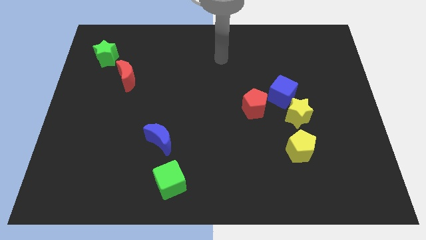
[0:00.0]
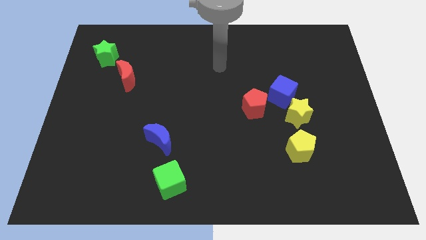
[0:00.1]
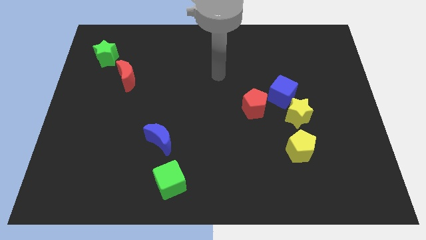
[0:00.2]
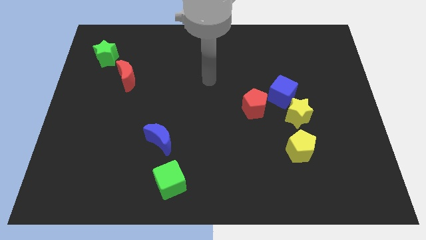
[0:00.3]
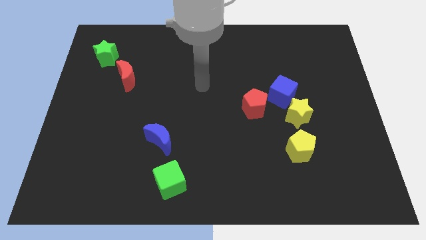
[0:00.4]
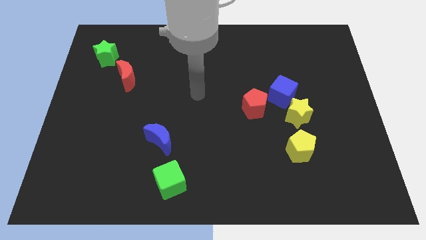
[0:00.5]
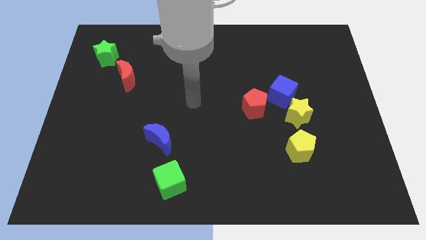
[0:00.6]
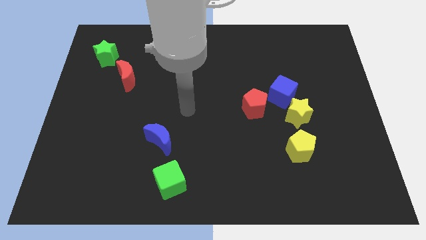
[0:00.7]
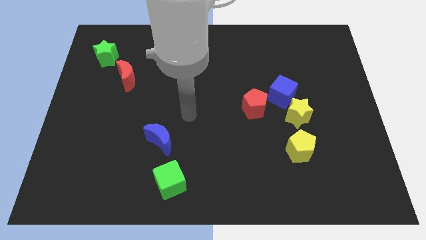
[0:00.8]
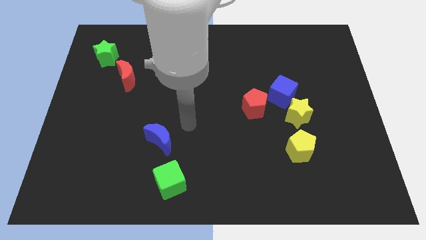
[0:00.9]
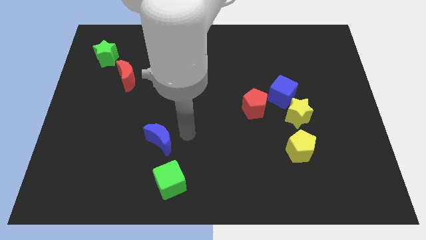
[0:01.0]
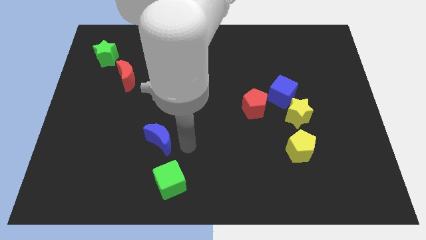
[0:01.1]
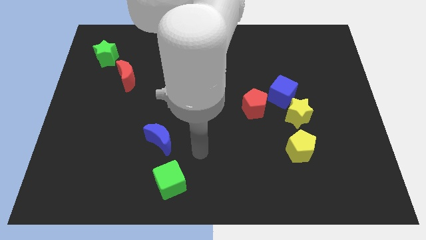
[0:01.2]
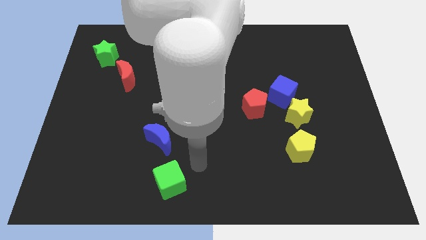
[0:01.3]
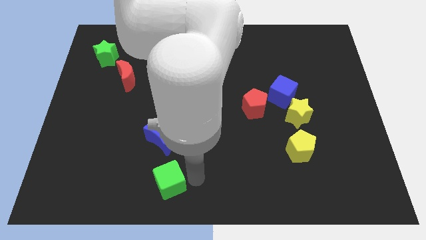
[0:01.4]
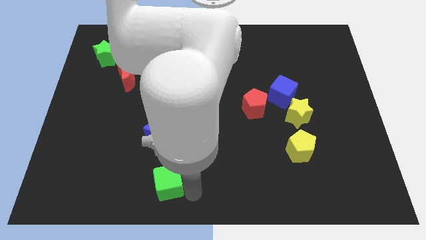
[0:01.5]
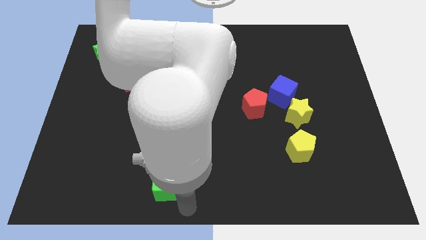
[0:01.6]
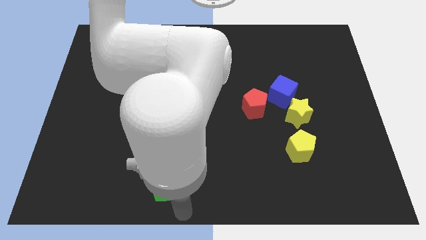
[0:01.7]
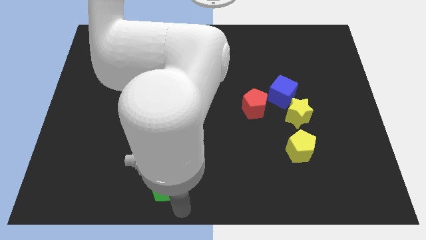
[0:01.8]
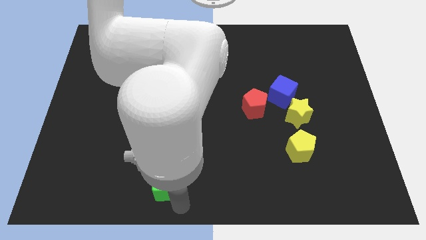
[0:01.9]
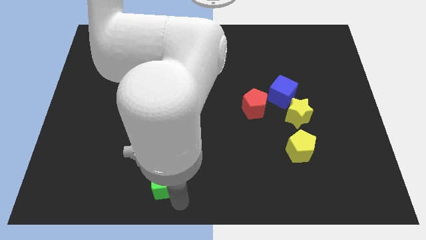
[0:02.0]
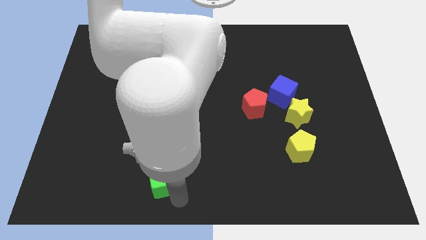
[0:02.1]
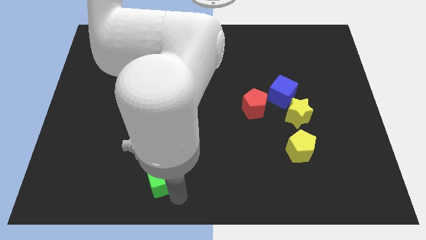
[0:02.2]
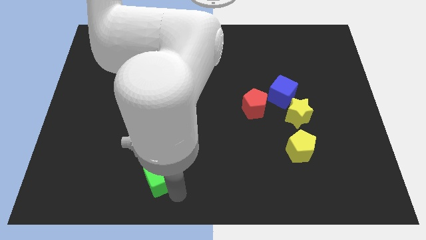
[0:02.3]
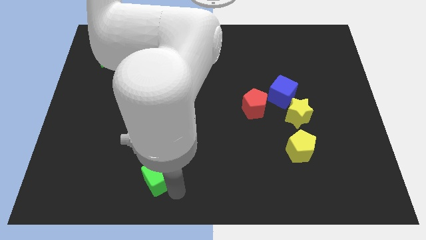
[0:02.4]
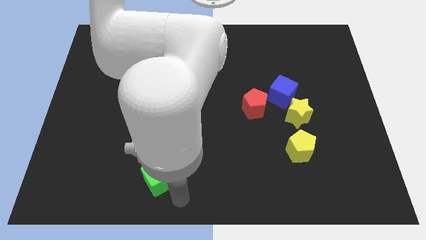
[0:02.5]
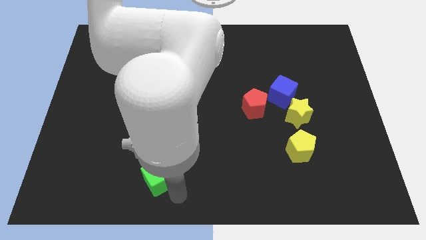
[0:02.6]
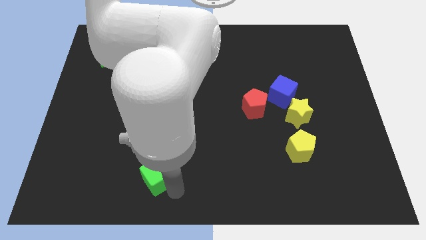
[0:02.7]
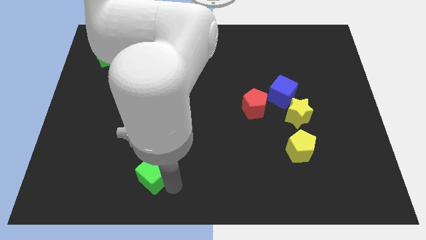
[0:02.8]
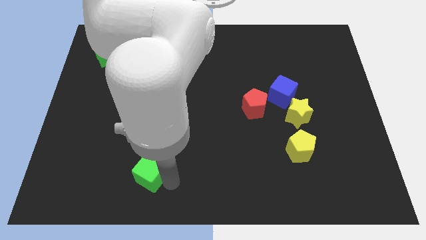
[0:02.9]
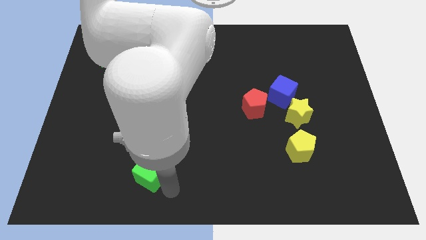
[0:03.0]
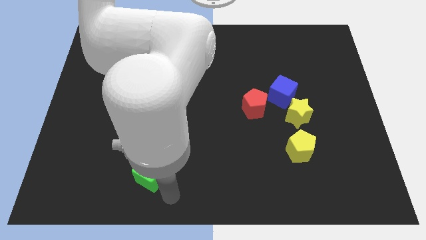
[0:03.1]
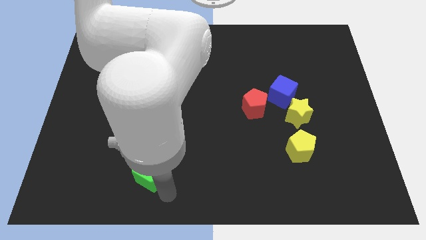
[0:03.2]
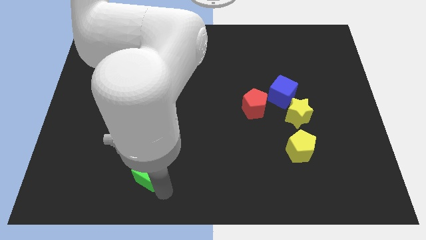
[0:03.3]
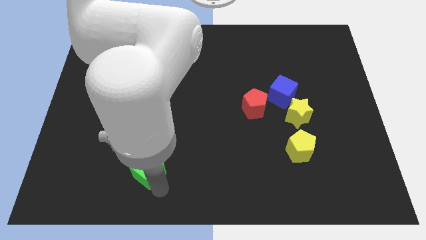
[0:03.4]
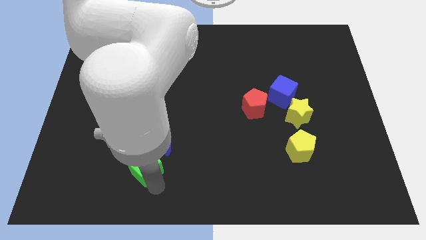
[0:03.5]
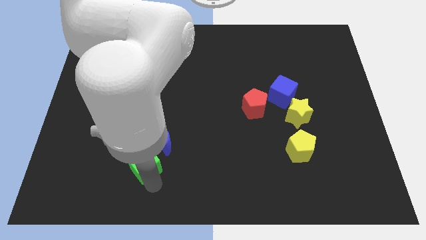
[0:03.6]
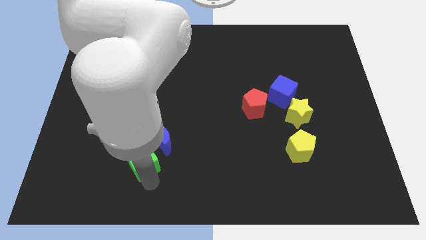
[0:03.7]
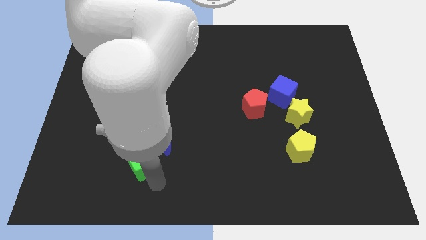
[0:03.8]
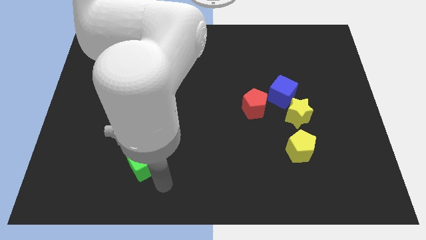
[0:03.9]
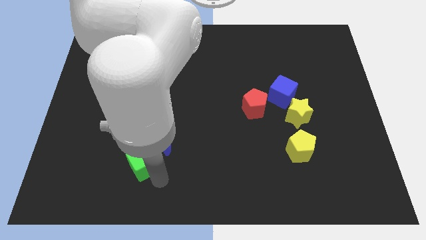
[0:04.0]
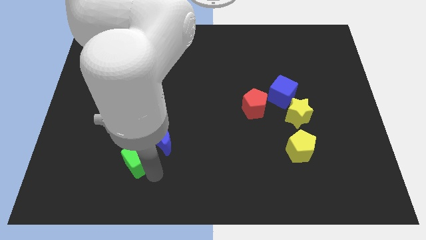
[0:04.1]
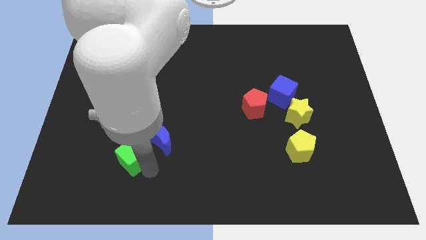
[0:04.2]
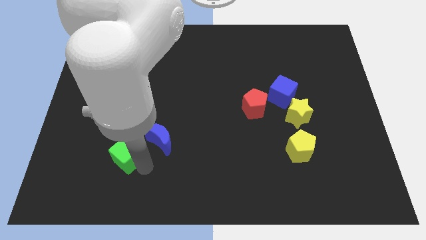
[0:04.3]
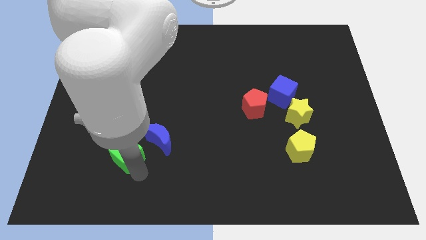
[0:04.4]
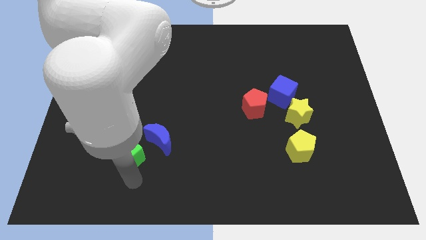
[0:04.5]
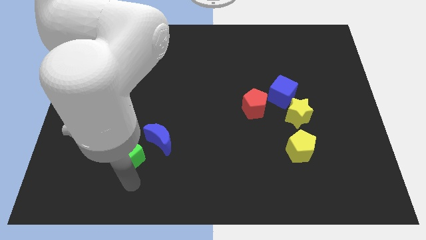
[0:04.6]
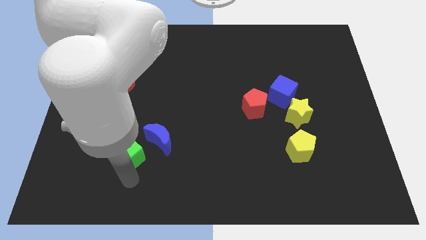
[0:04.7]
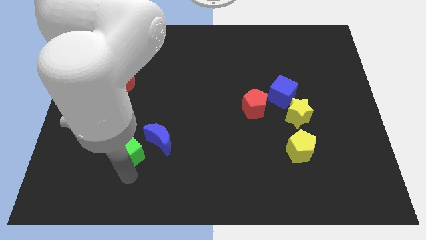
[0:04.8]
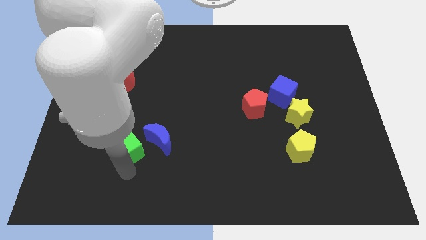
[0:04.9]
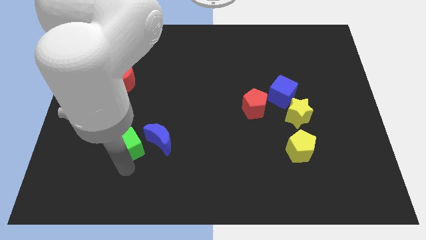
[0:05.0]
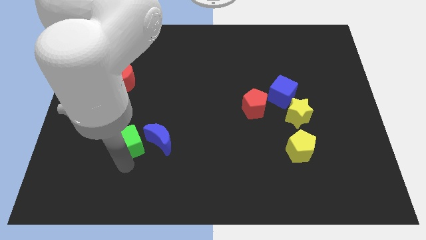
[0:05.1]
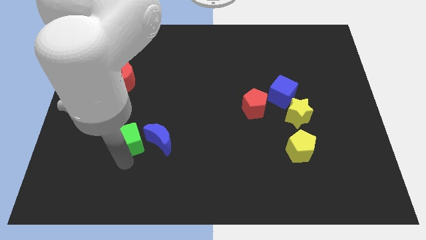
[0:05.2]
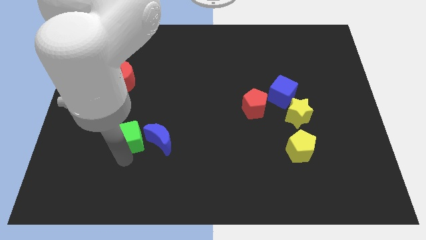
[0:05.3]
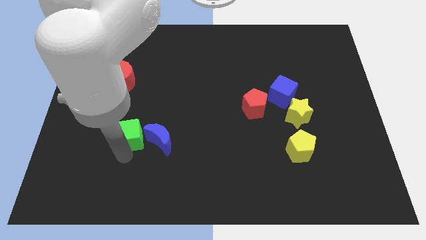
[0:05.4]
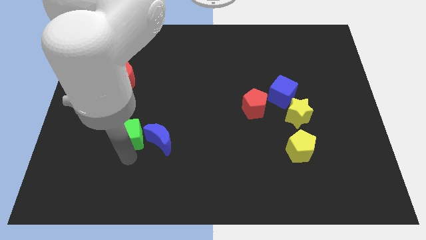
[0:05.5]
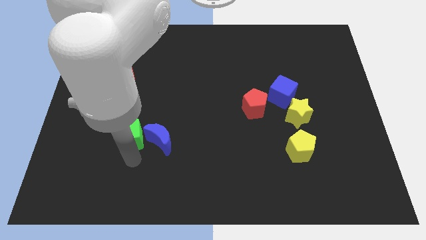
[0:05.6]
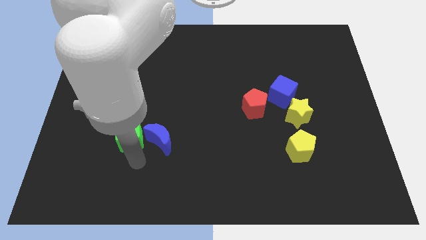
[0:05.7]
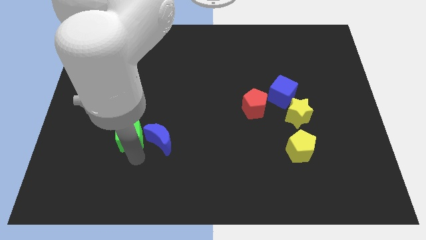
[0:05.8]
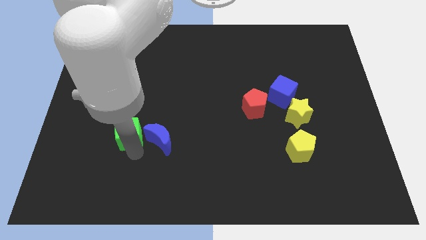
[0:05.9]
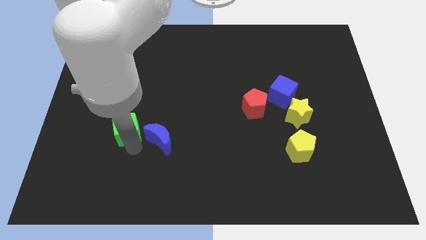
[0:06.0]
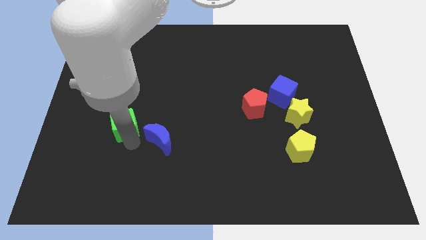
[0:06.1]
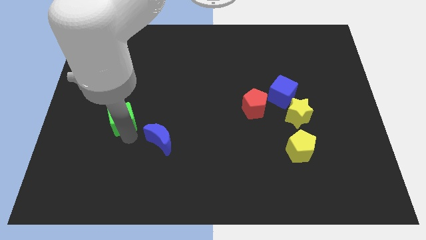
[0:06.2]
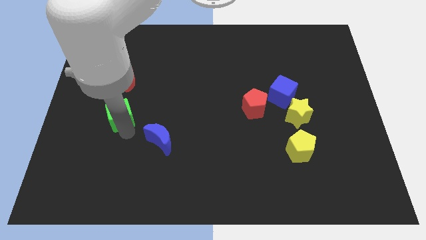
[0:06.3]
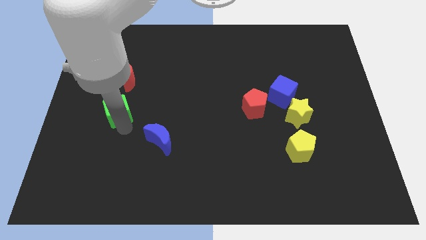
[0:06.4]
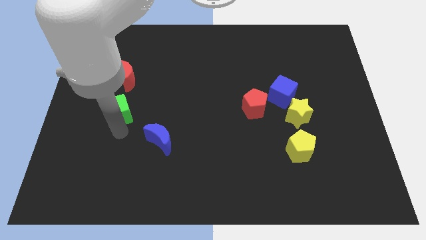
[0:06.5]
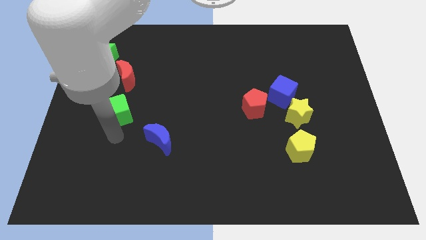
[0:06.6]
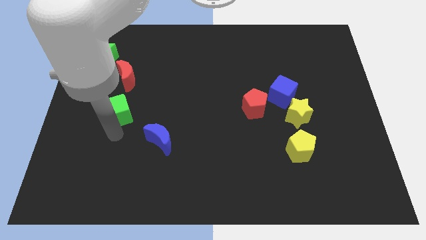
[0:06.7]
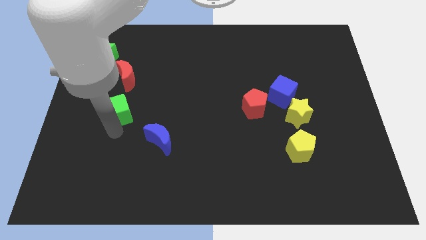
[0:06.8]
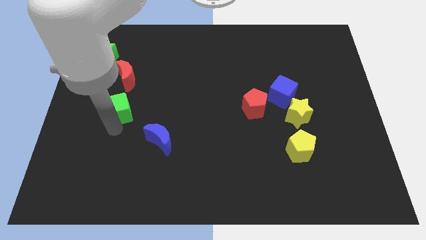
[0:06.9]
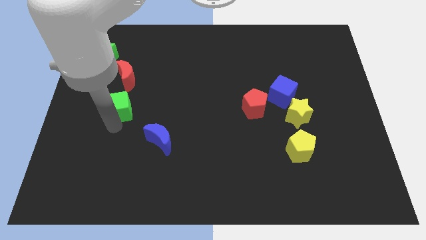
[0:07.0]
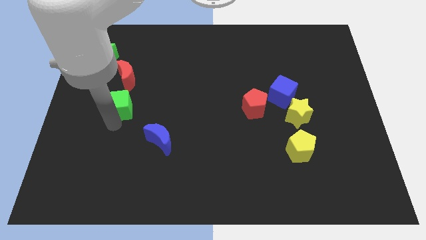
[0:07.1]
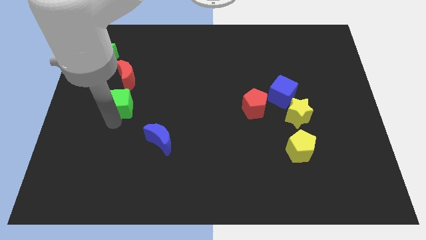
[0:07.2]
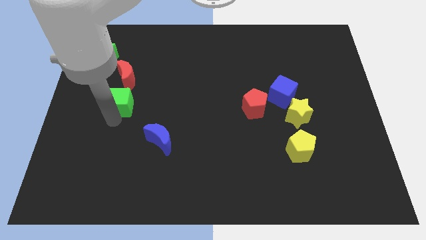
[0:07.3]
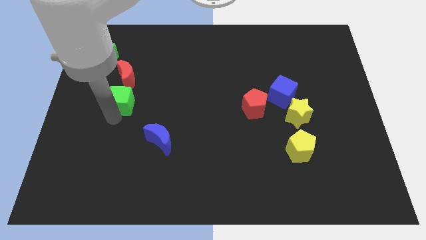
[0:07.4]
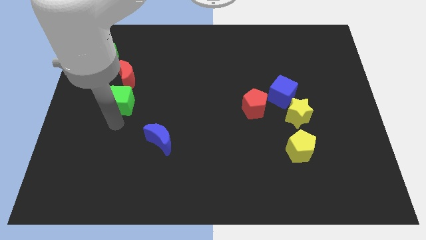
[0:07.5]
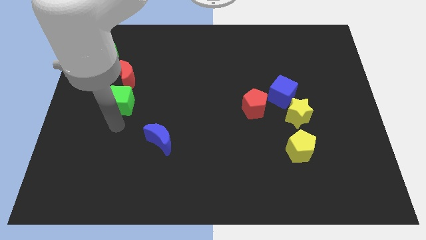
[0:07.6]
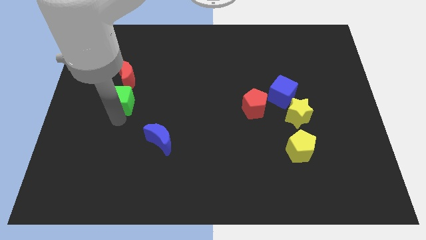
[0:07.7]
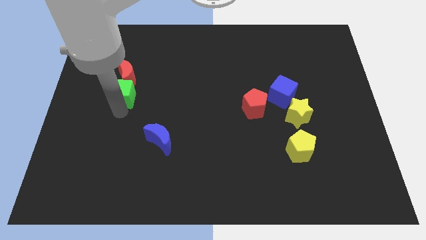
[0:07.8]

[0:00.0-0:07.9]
push the green cube towards the red moon
